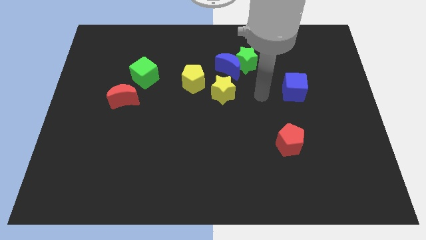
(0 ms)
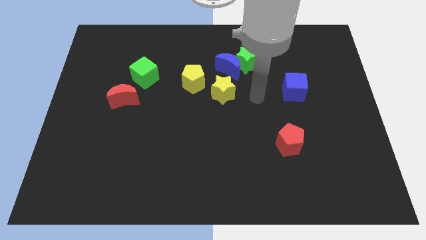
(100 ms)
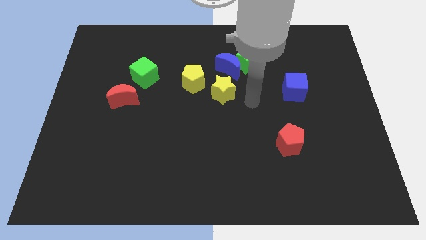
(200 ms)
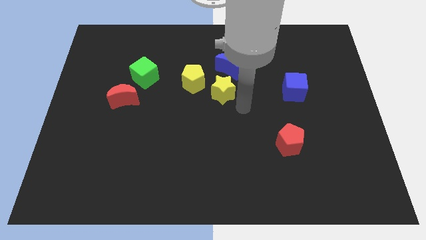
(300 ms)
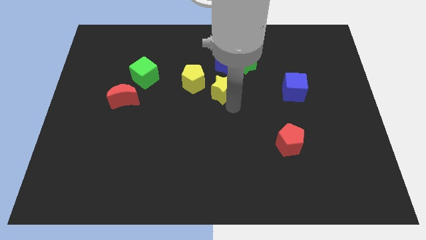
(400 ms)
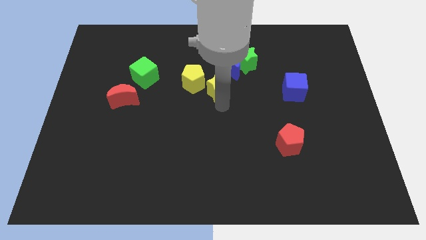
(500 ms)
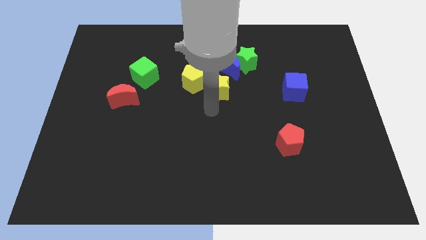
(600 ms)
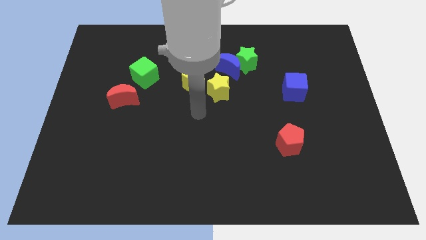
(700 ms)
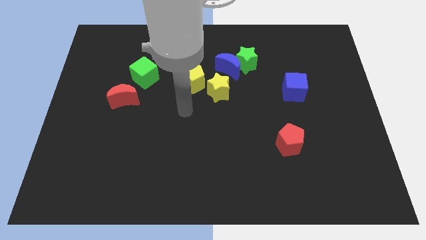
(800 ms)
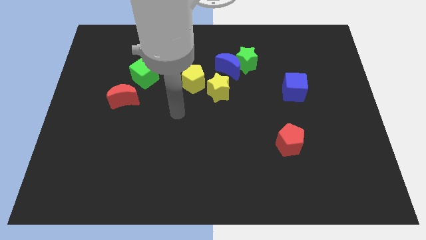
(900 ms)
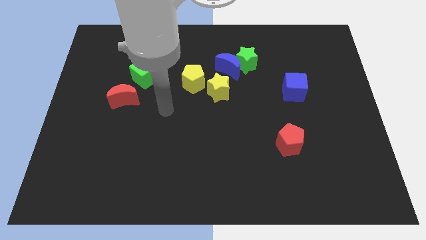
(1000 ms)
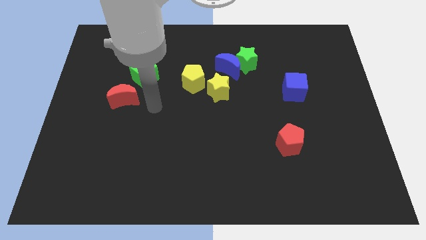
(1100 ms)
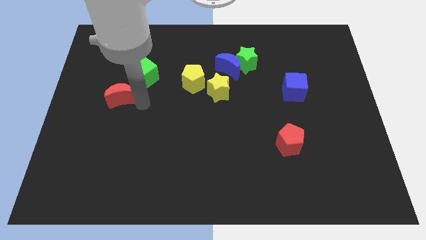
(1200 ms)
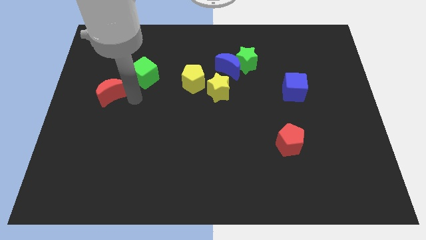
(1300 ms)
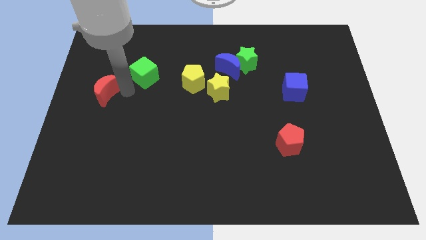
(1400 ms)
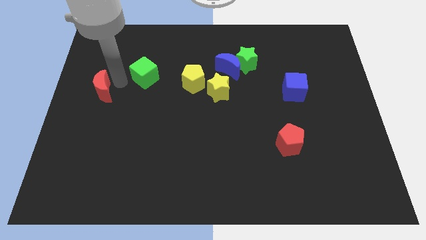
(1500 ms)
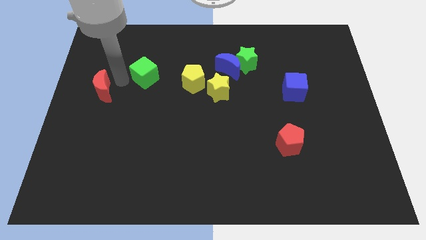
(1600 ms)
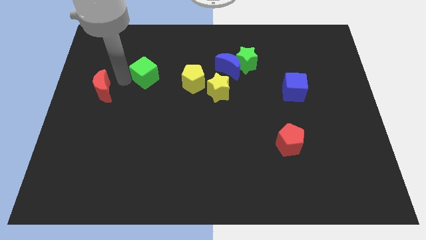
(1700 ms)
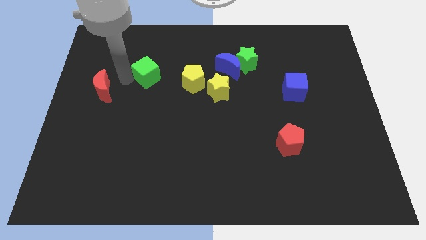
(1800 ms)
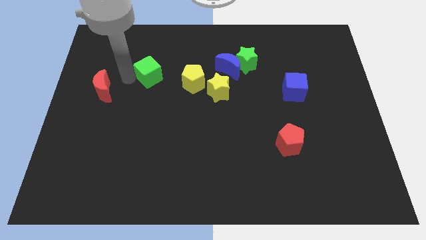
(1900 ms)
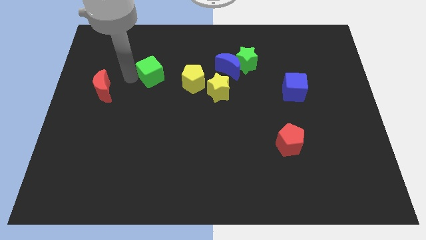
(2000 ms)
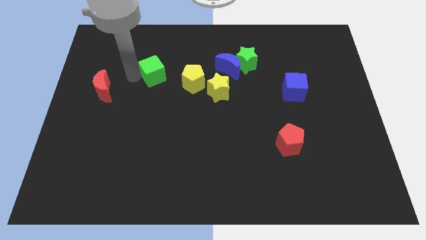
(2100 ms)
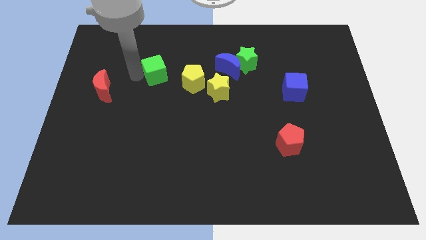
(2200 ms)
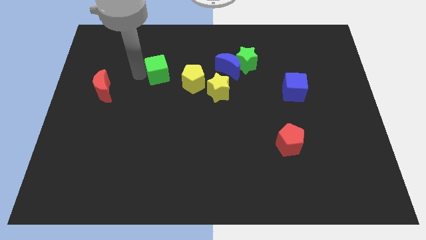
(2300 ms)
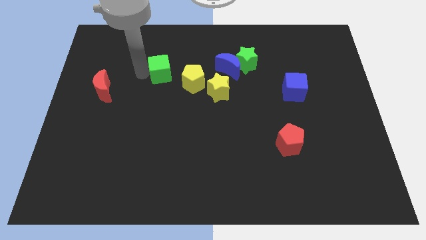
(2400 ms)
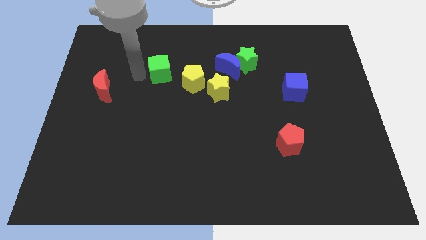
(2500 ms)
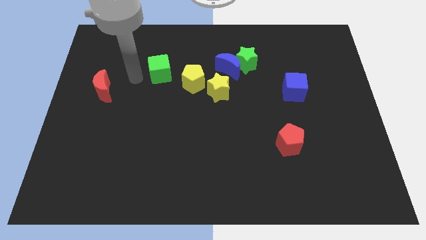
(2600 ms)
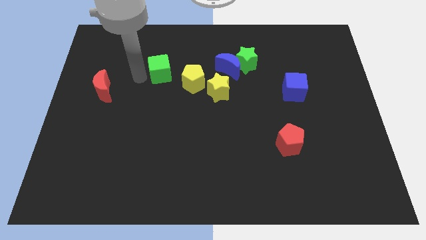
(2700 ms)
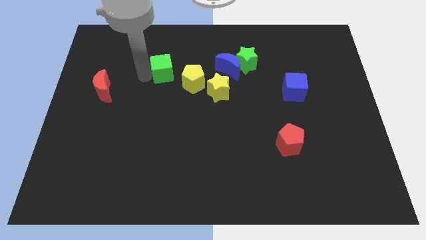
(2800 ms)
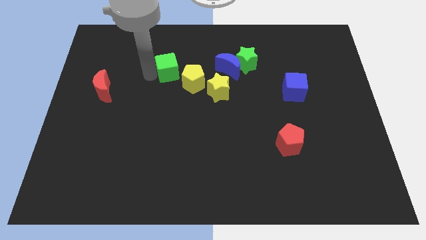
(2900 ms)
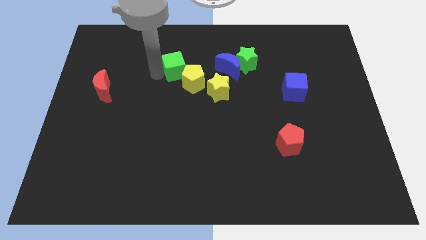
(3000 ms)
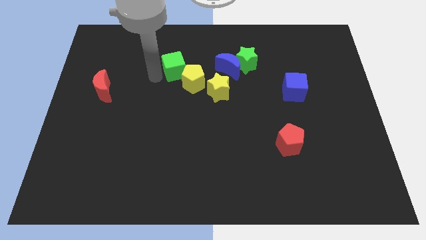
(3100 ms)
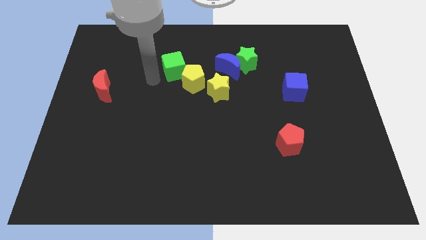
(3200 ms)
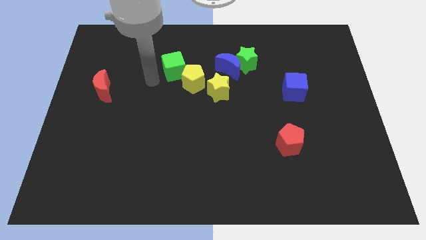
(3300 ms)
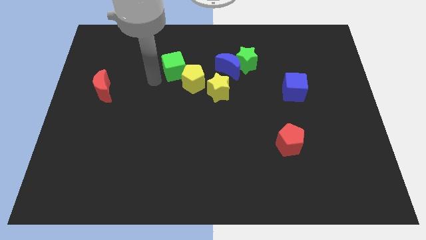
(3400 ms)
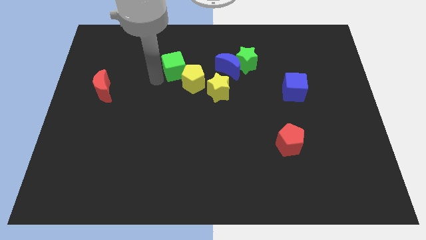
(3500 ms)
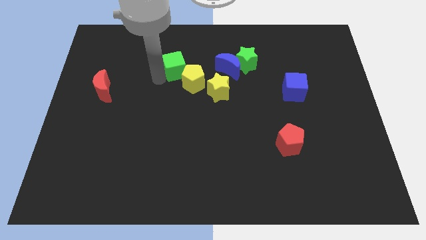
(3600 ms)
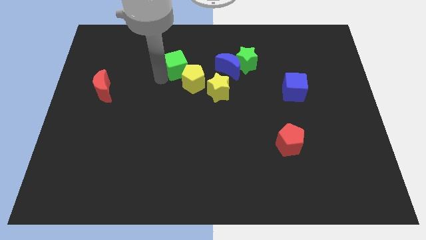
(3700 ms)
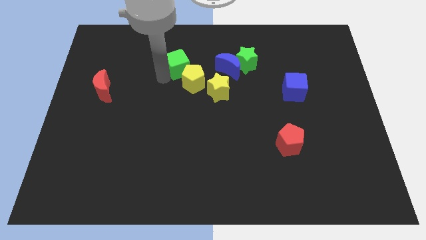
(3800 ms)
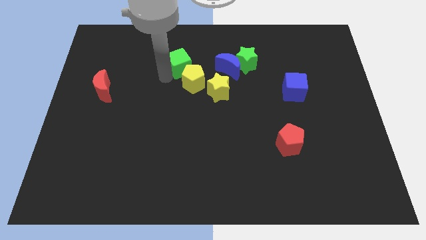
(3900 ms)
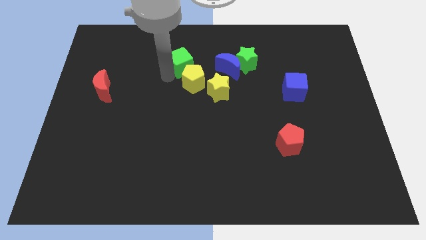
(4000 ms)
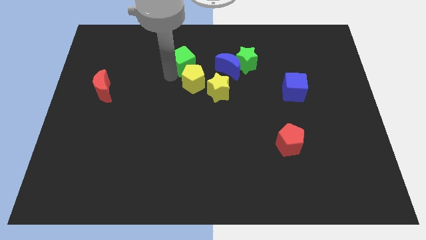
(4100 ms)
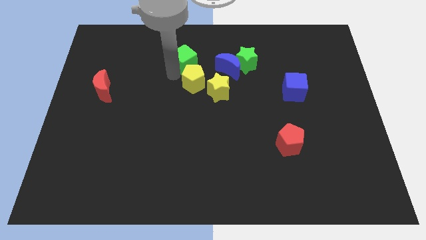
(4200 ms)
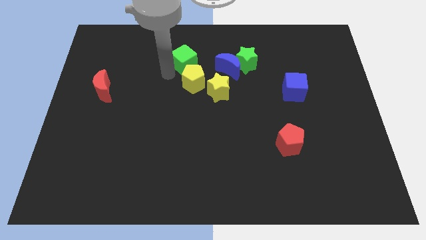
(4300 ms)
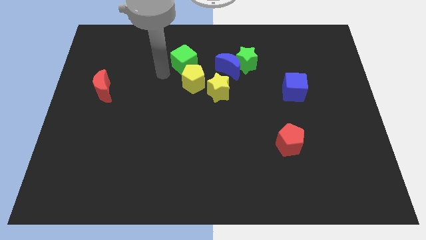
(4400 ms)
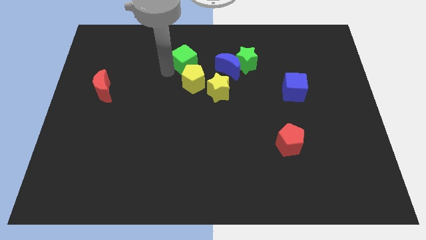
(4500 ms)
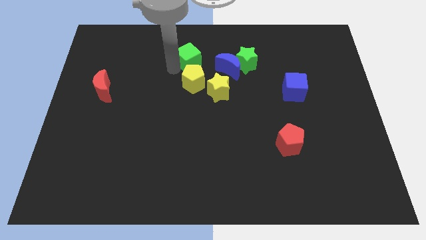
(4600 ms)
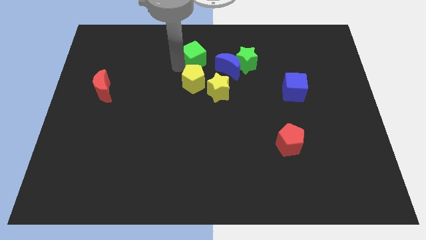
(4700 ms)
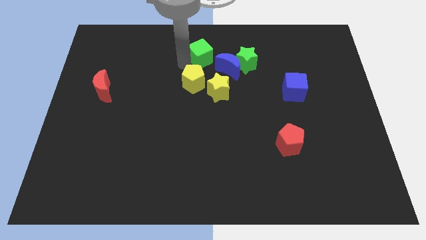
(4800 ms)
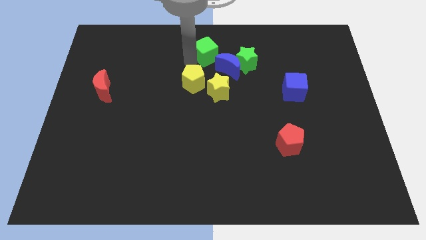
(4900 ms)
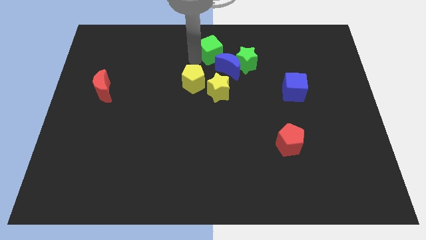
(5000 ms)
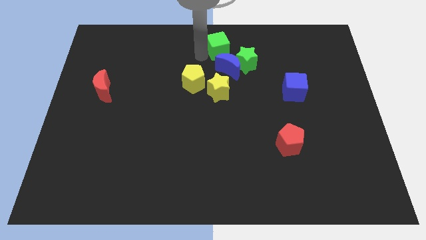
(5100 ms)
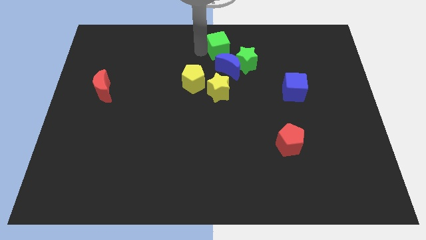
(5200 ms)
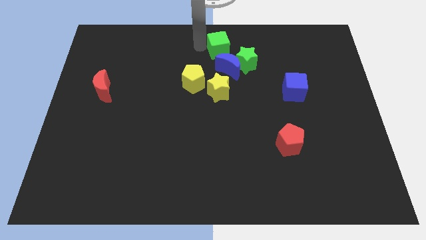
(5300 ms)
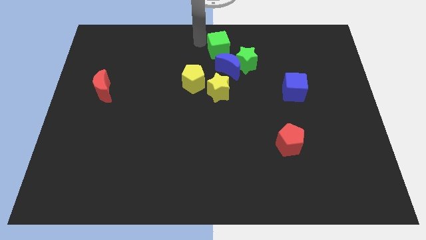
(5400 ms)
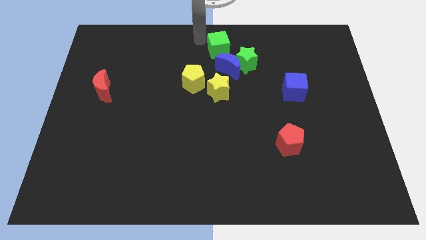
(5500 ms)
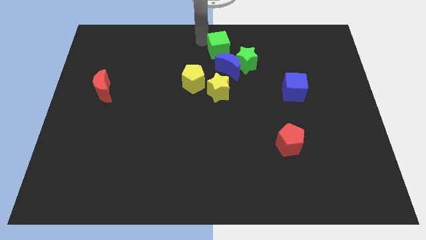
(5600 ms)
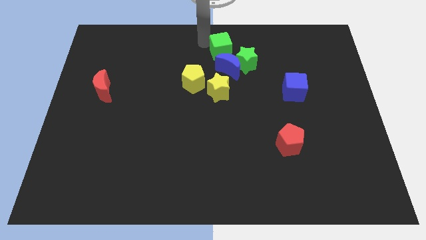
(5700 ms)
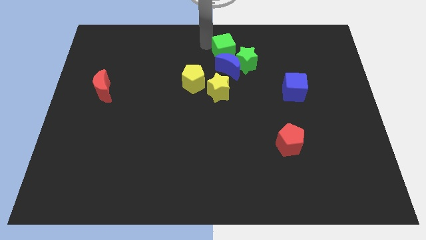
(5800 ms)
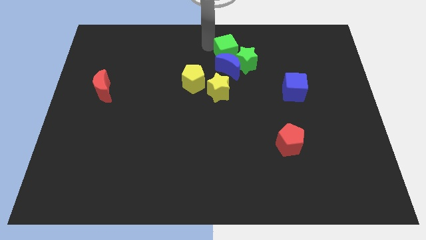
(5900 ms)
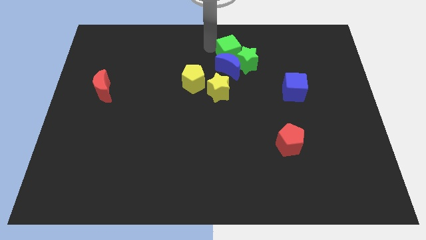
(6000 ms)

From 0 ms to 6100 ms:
slide the green cube towards the green star

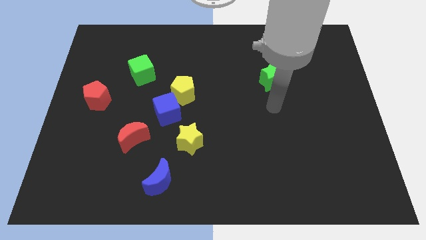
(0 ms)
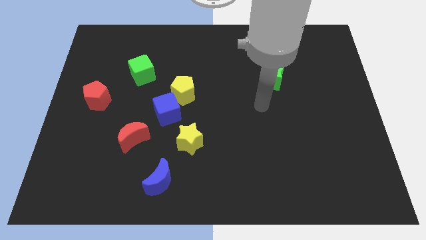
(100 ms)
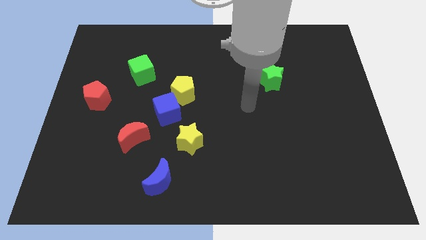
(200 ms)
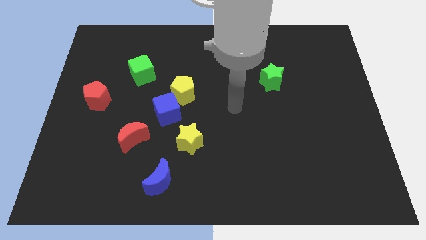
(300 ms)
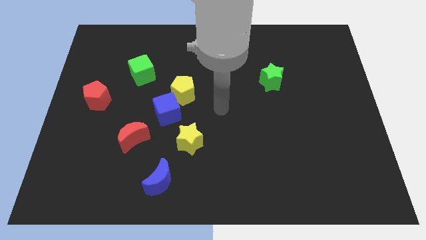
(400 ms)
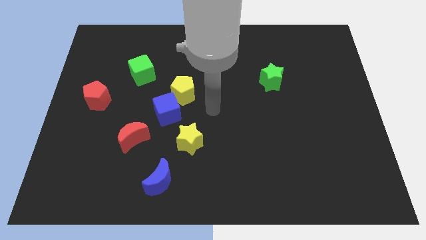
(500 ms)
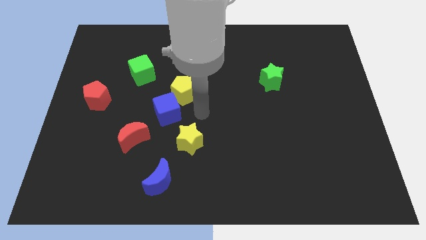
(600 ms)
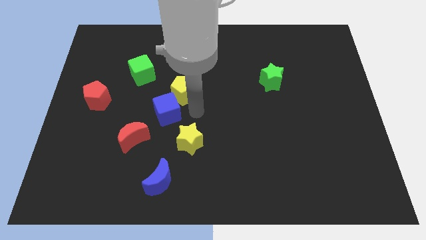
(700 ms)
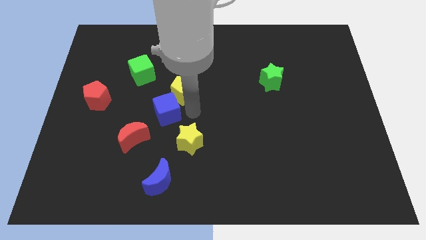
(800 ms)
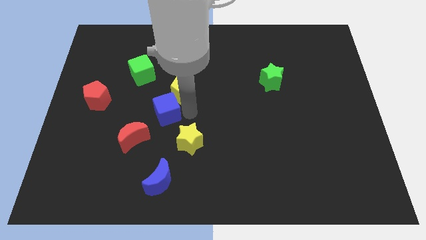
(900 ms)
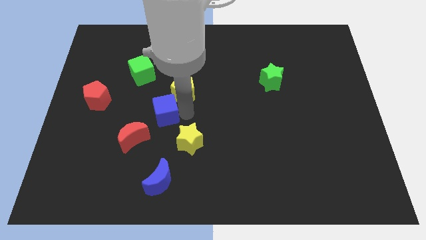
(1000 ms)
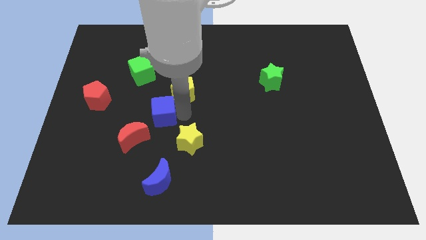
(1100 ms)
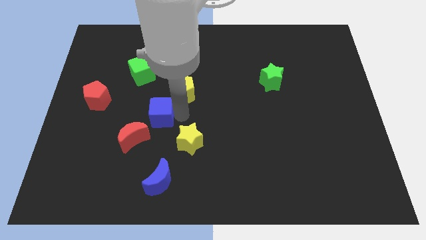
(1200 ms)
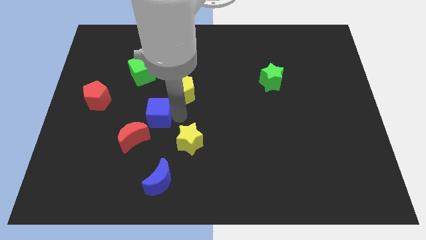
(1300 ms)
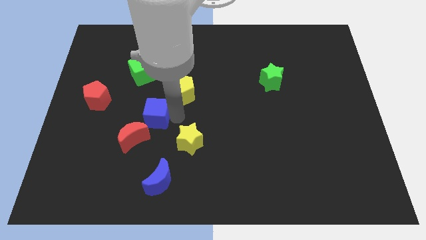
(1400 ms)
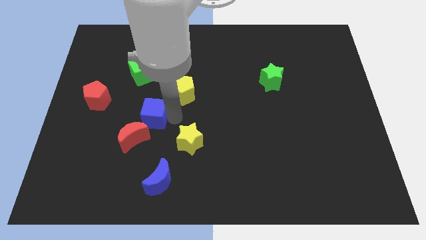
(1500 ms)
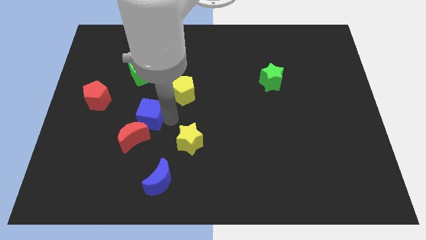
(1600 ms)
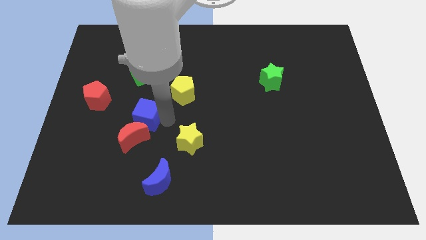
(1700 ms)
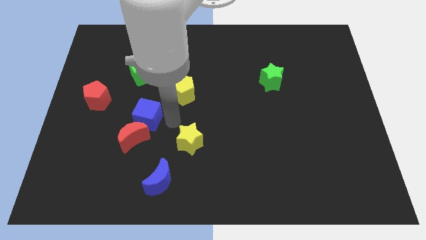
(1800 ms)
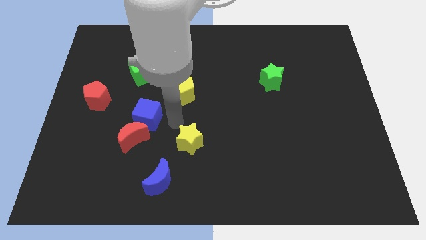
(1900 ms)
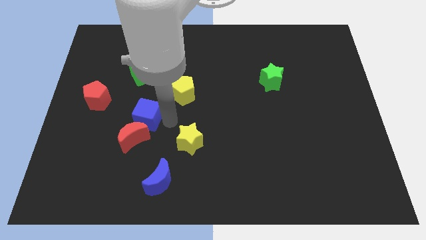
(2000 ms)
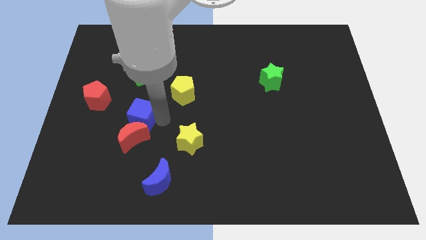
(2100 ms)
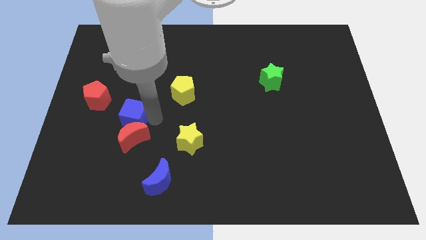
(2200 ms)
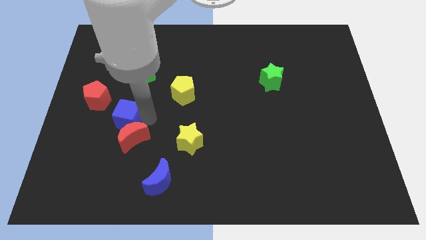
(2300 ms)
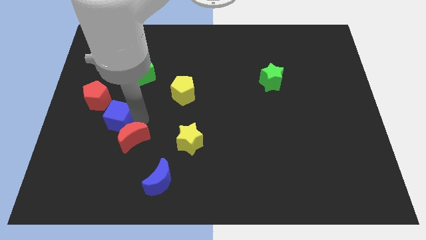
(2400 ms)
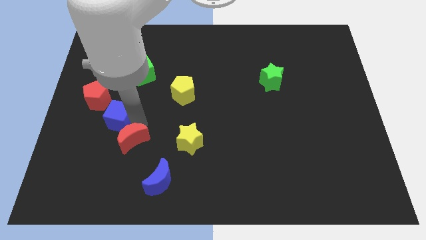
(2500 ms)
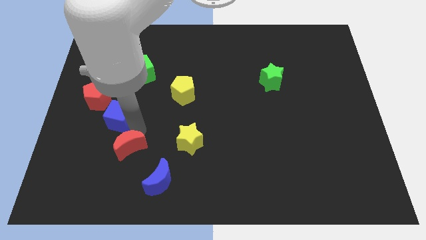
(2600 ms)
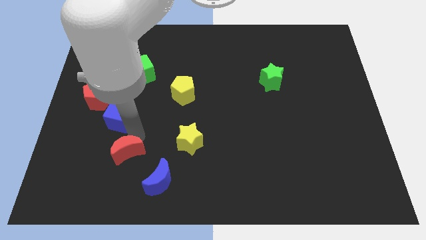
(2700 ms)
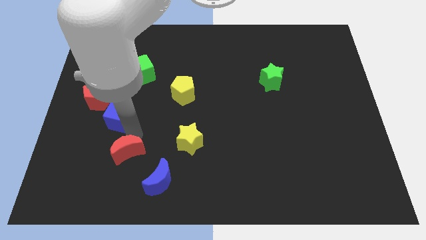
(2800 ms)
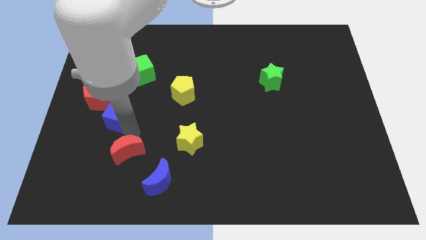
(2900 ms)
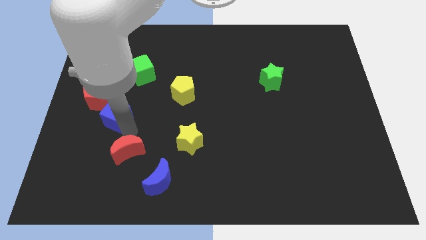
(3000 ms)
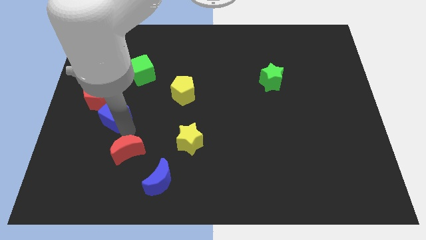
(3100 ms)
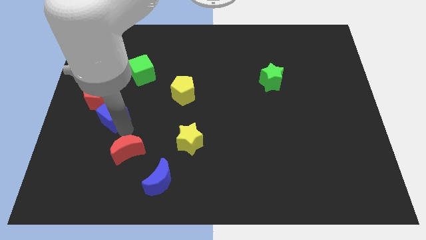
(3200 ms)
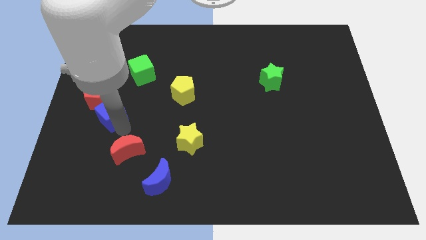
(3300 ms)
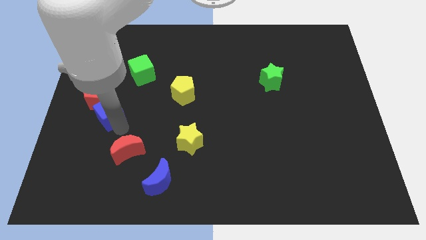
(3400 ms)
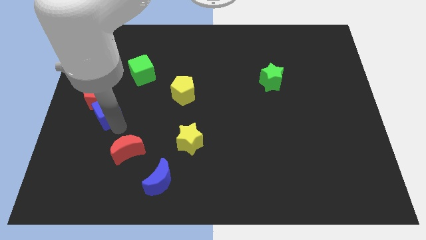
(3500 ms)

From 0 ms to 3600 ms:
slide the blue cube next to the red pentagon
